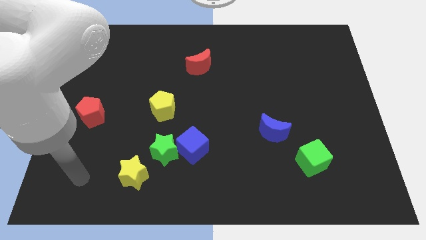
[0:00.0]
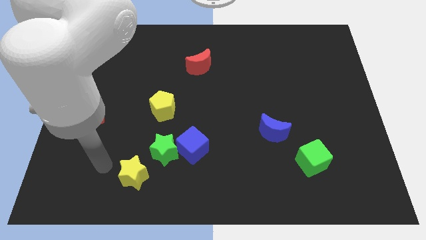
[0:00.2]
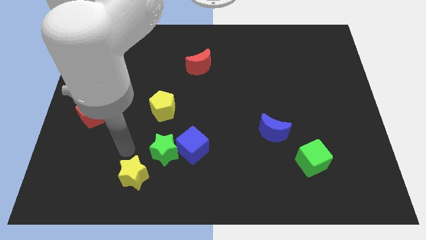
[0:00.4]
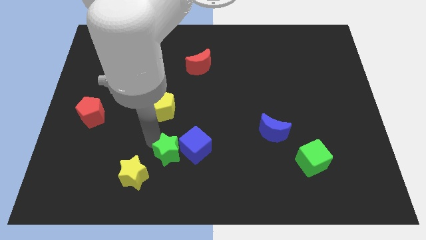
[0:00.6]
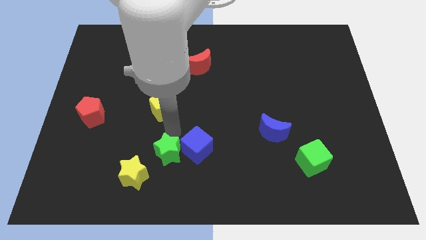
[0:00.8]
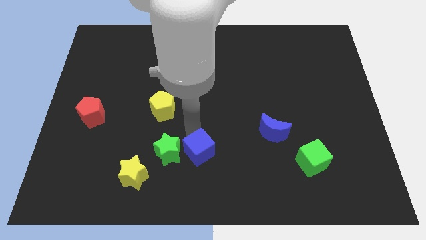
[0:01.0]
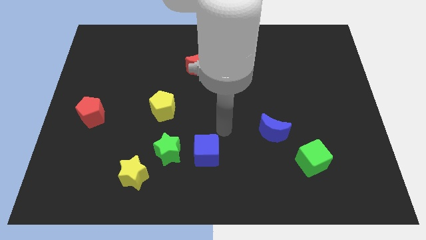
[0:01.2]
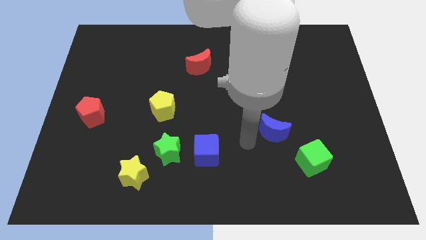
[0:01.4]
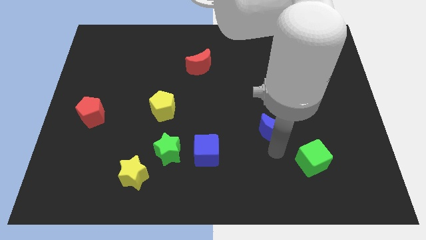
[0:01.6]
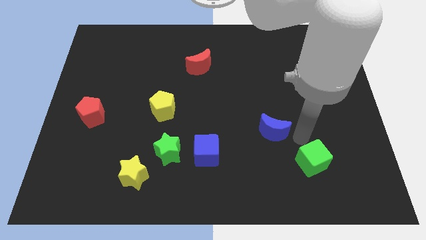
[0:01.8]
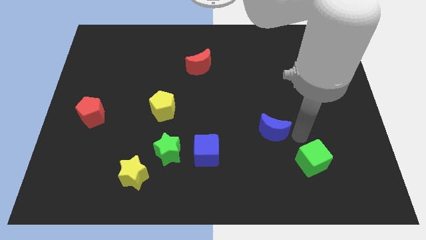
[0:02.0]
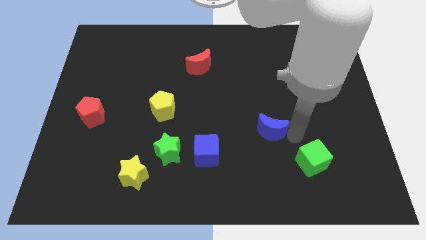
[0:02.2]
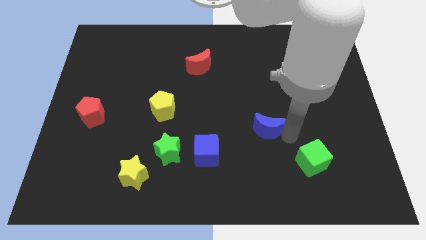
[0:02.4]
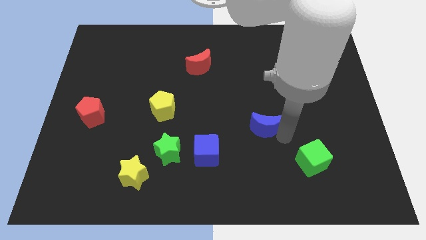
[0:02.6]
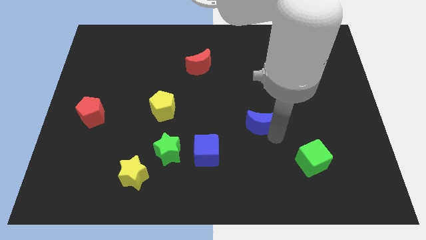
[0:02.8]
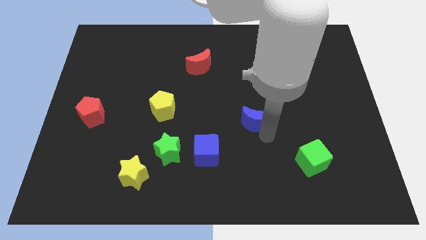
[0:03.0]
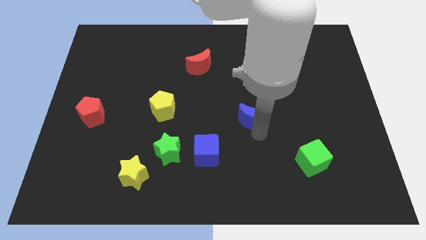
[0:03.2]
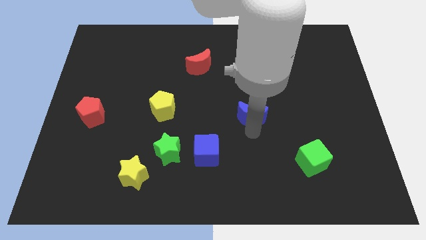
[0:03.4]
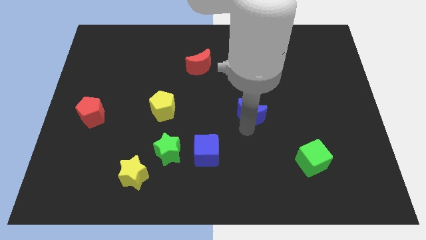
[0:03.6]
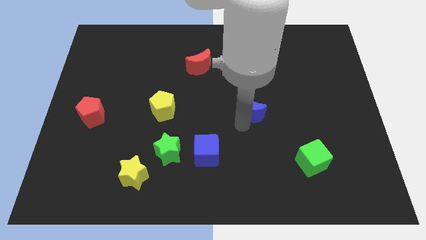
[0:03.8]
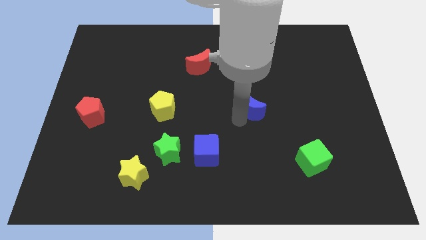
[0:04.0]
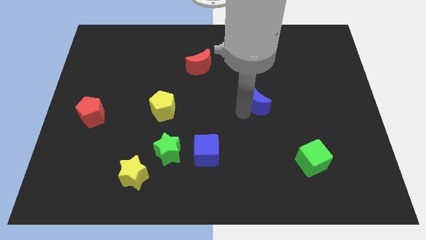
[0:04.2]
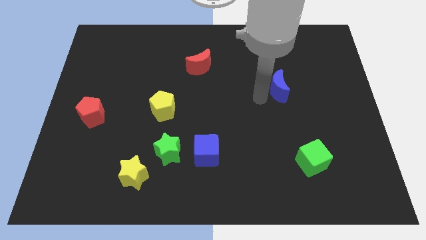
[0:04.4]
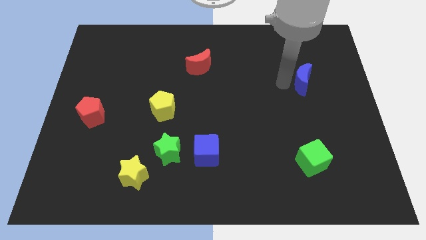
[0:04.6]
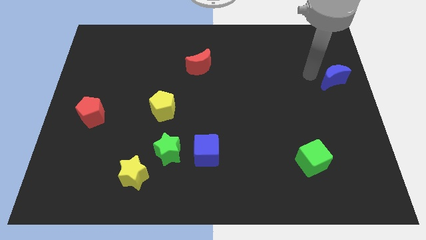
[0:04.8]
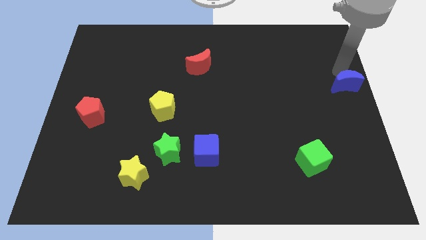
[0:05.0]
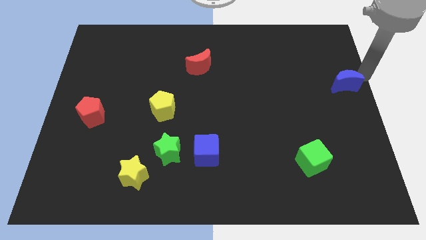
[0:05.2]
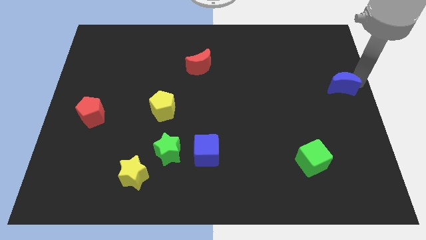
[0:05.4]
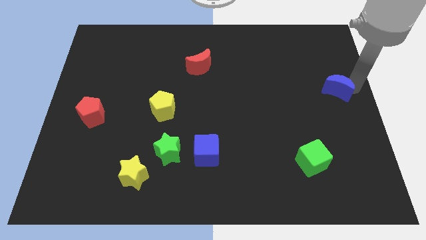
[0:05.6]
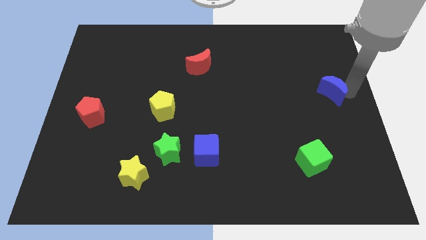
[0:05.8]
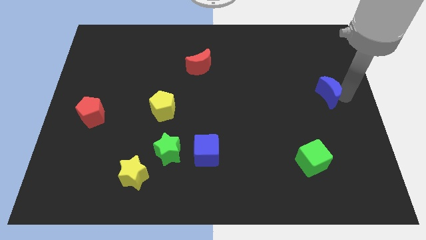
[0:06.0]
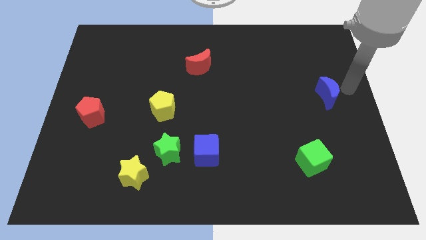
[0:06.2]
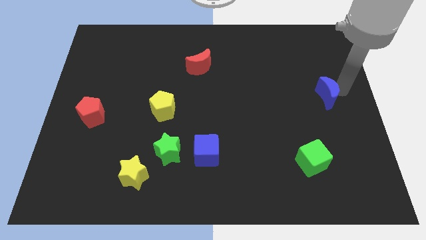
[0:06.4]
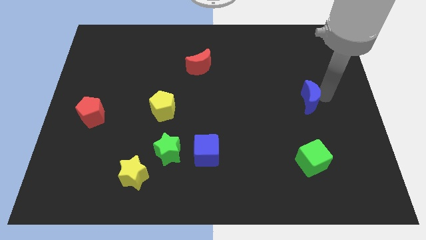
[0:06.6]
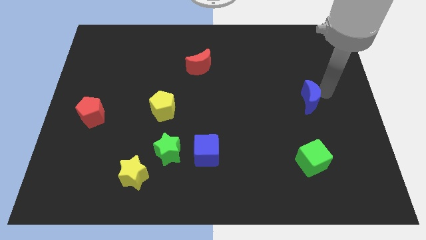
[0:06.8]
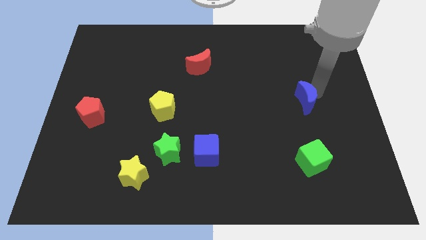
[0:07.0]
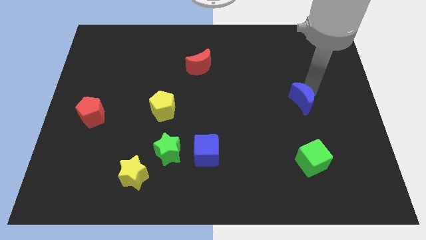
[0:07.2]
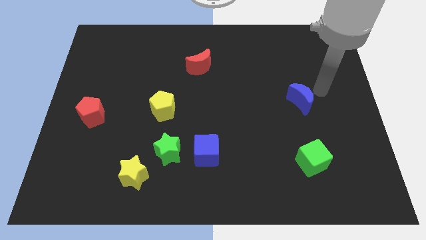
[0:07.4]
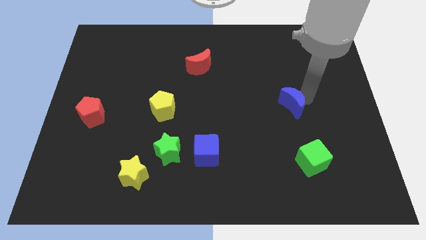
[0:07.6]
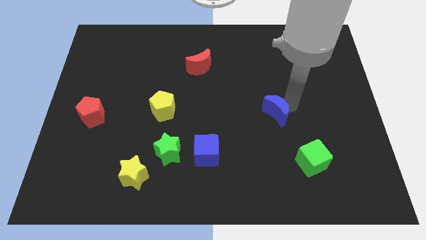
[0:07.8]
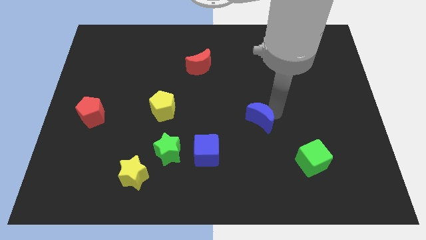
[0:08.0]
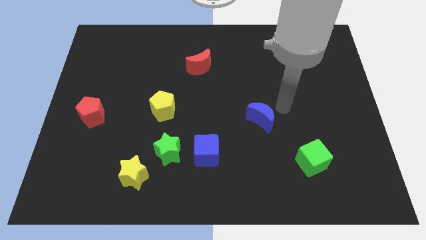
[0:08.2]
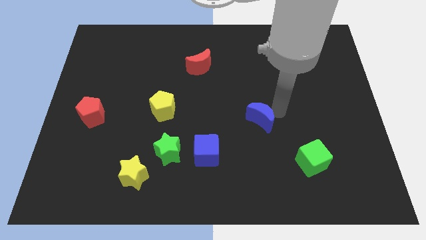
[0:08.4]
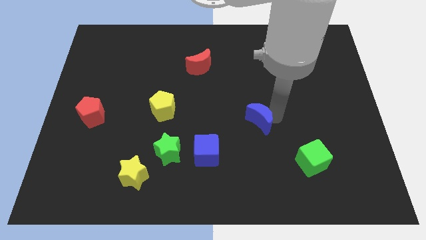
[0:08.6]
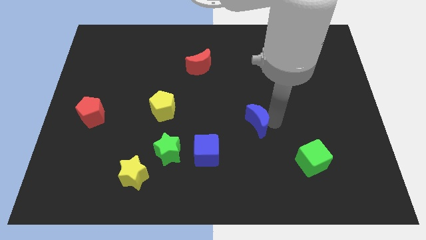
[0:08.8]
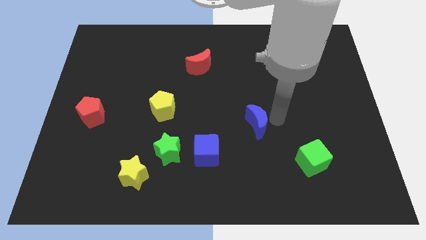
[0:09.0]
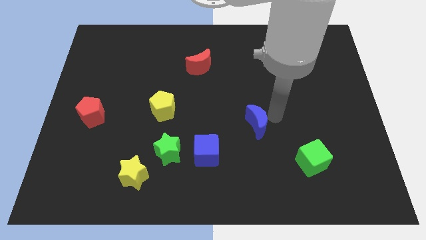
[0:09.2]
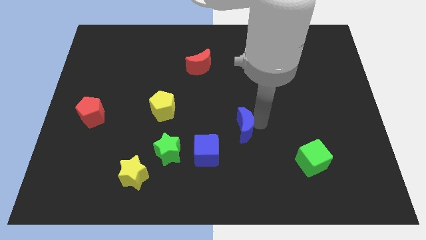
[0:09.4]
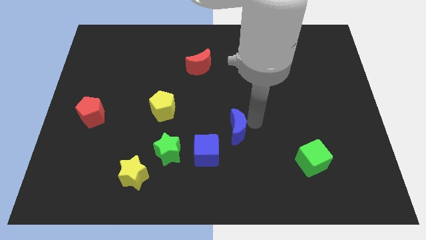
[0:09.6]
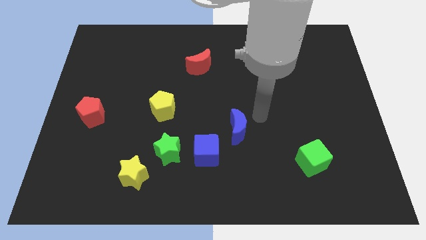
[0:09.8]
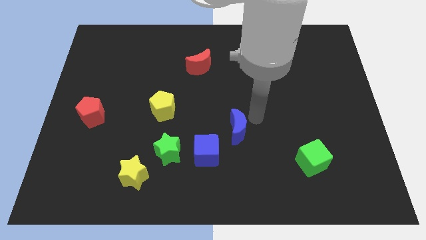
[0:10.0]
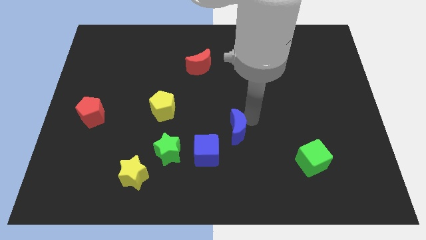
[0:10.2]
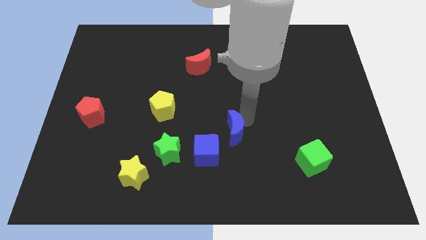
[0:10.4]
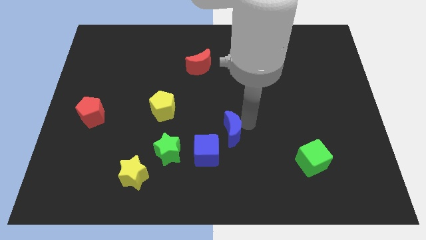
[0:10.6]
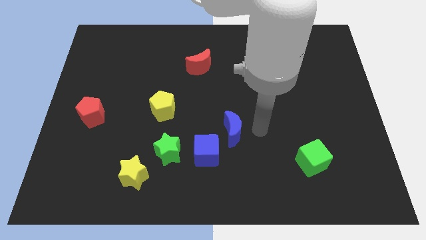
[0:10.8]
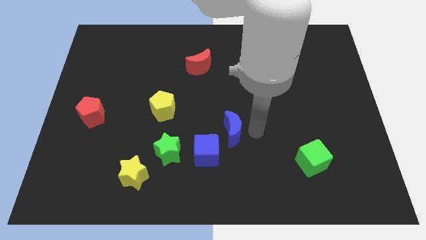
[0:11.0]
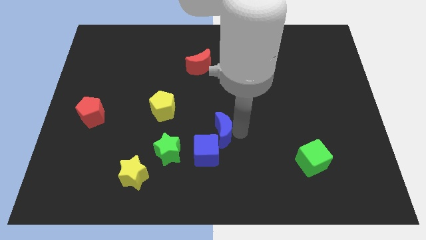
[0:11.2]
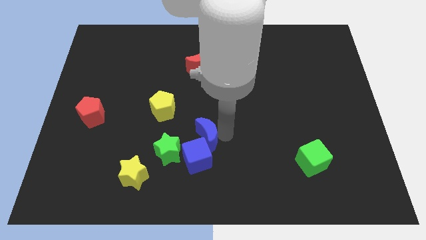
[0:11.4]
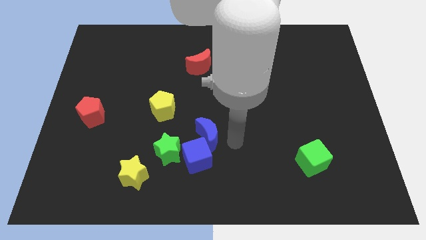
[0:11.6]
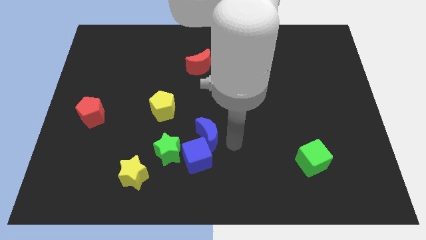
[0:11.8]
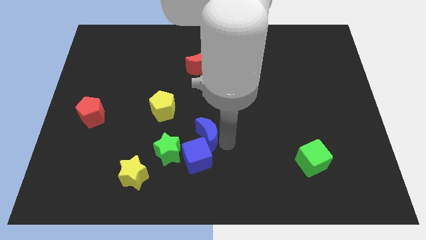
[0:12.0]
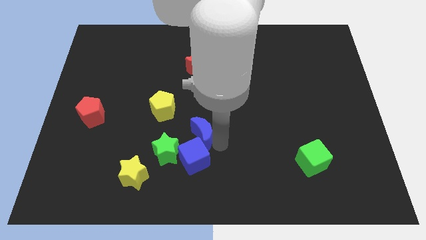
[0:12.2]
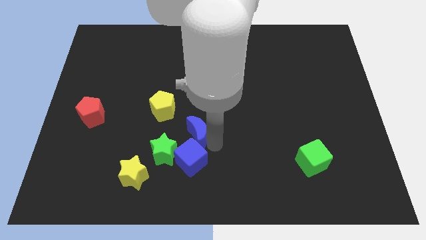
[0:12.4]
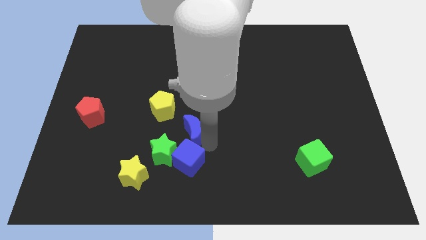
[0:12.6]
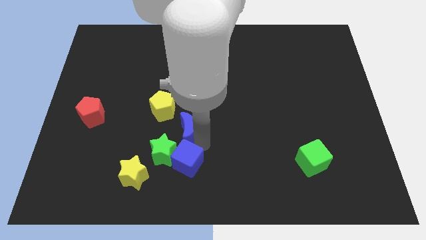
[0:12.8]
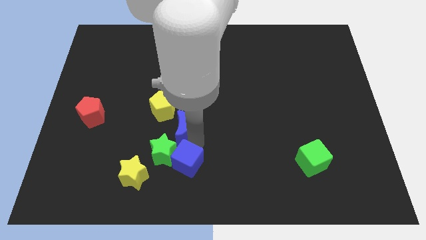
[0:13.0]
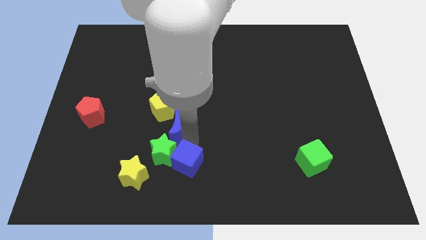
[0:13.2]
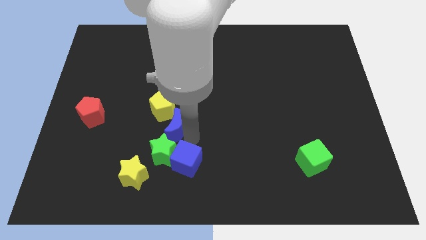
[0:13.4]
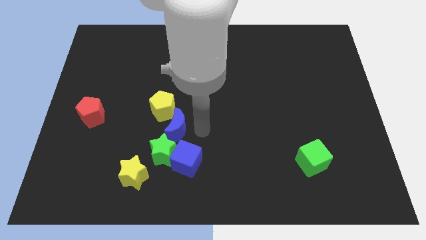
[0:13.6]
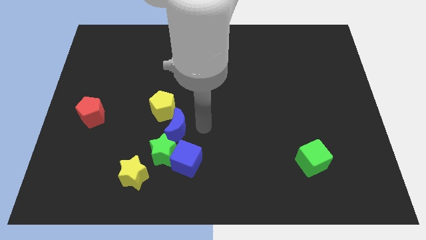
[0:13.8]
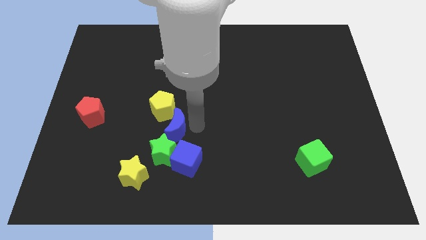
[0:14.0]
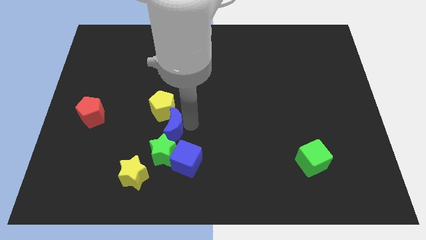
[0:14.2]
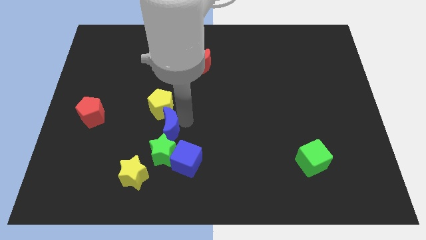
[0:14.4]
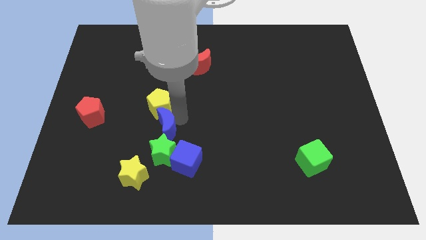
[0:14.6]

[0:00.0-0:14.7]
move the blue moon to the top left of the green star

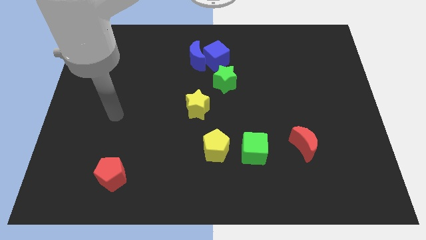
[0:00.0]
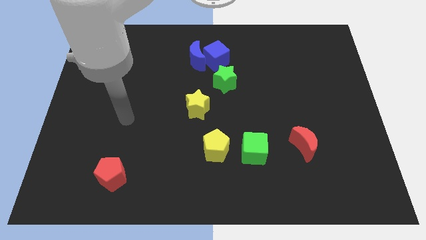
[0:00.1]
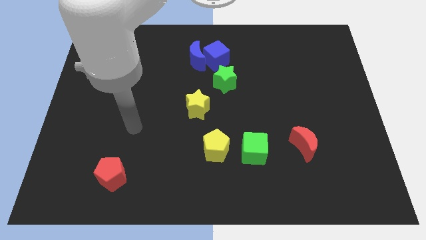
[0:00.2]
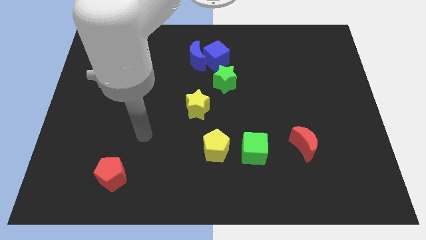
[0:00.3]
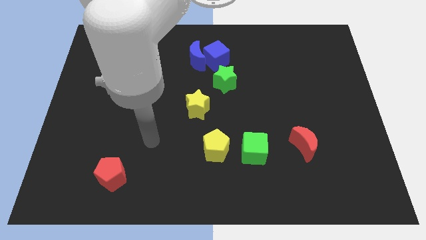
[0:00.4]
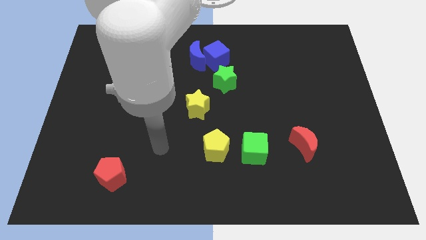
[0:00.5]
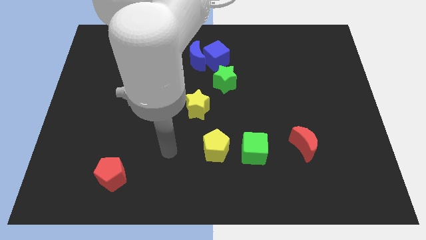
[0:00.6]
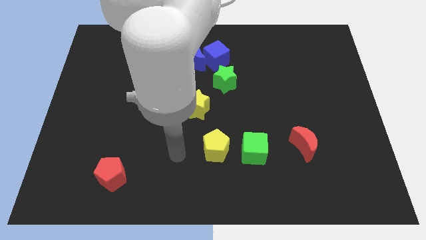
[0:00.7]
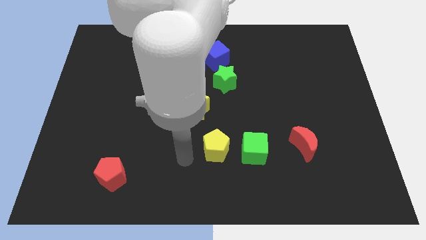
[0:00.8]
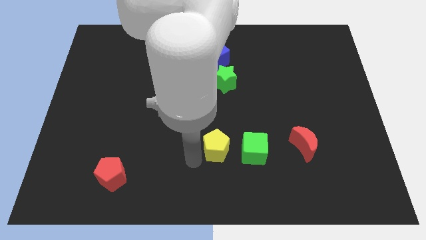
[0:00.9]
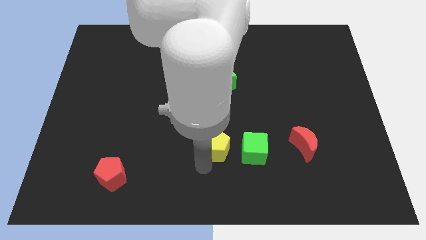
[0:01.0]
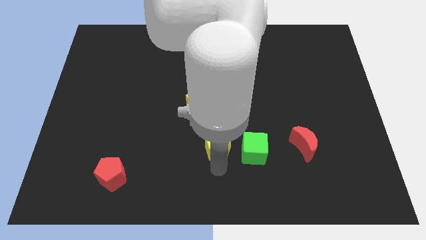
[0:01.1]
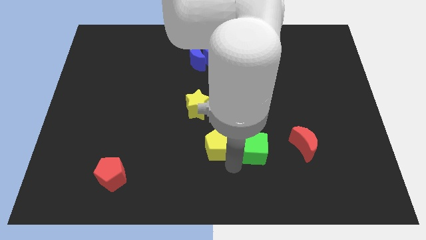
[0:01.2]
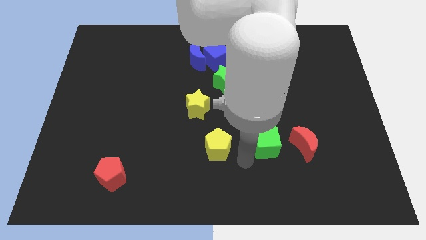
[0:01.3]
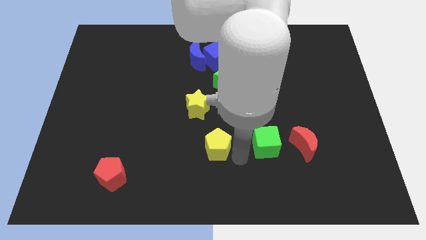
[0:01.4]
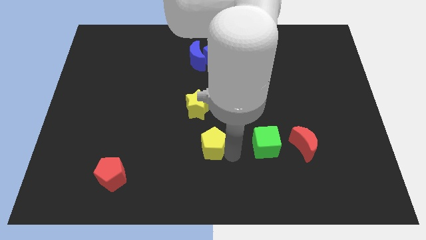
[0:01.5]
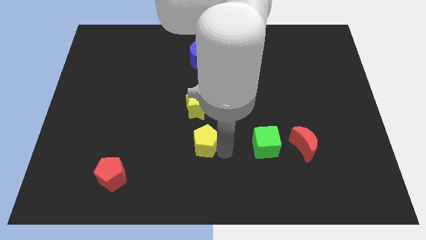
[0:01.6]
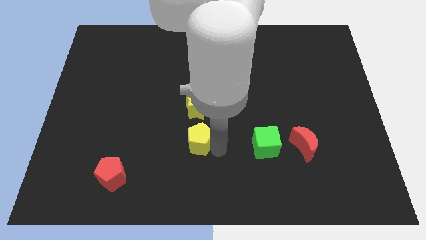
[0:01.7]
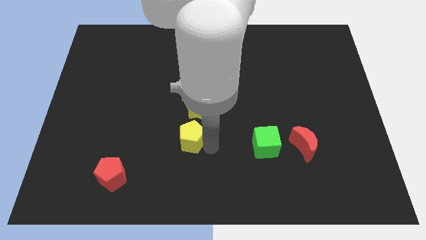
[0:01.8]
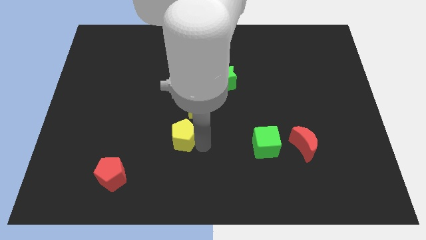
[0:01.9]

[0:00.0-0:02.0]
put the yellow pentagon to the bottom left of the yellow star
